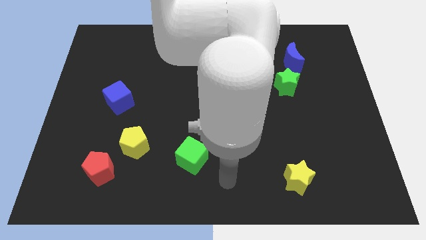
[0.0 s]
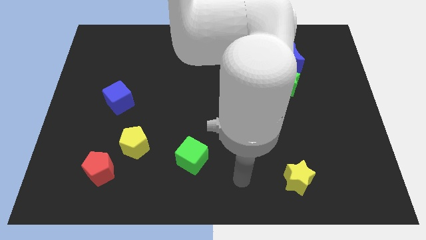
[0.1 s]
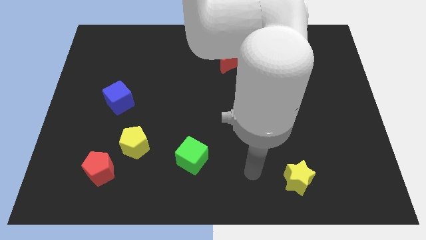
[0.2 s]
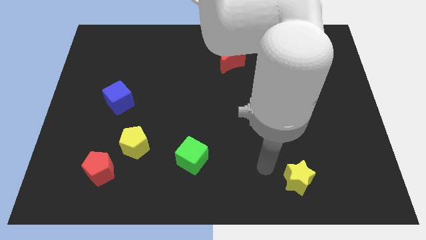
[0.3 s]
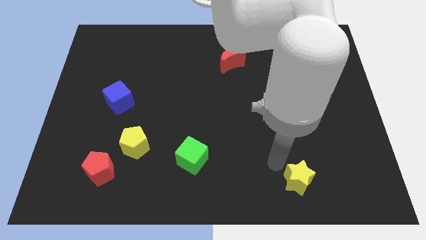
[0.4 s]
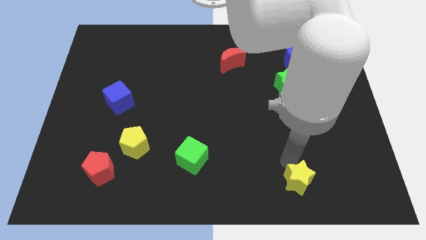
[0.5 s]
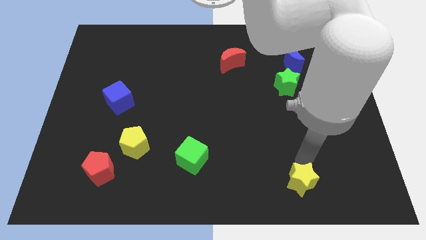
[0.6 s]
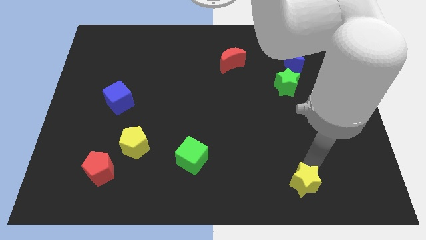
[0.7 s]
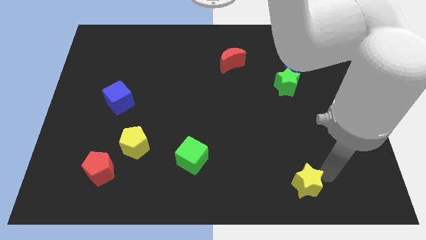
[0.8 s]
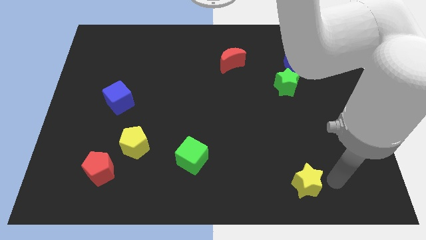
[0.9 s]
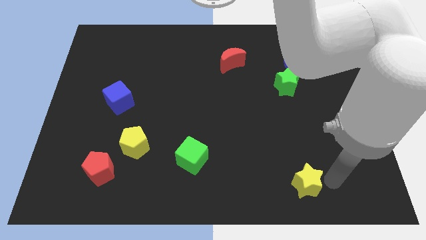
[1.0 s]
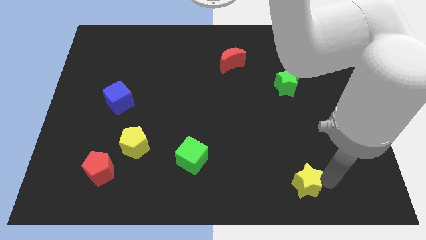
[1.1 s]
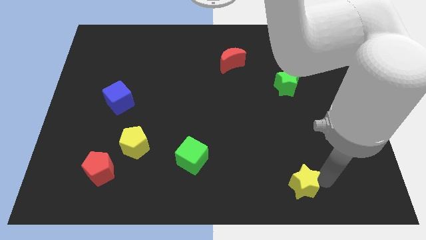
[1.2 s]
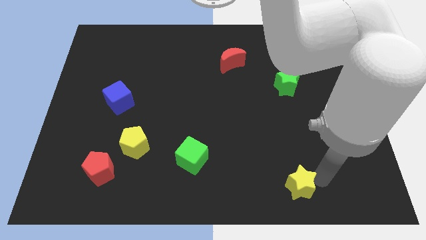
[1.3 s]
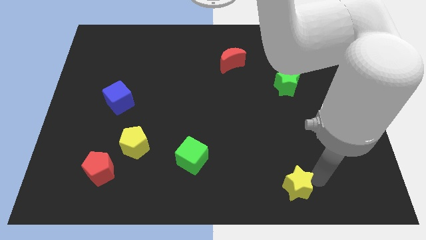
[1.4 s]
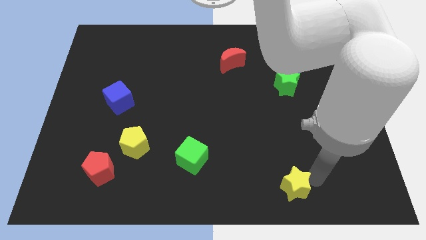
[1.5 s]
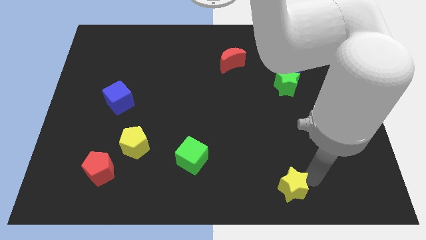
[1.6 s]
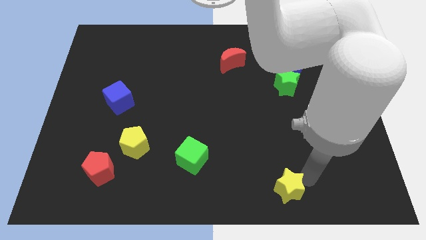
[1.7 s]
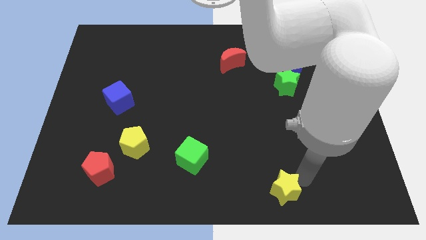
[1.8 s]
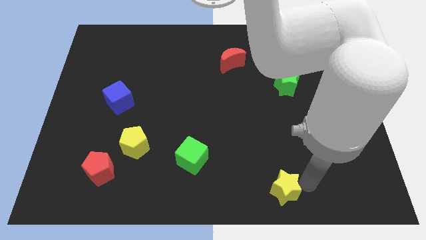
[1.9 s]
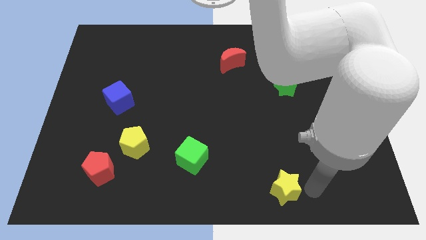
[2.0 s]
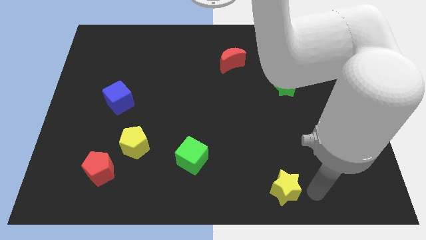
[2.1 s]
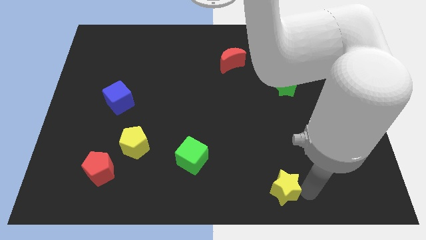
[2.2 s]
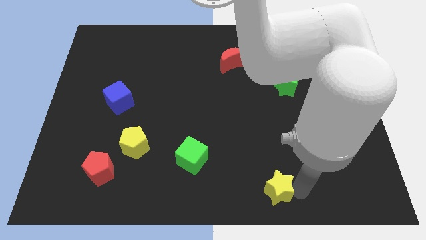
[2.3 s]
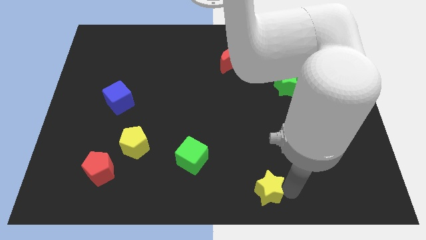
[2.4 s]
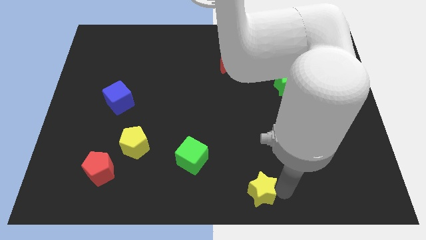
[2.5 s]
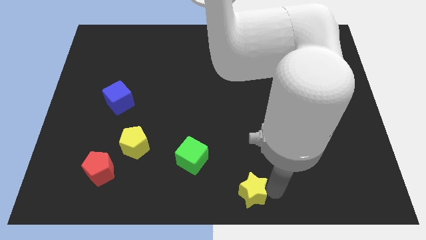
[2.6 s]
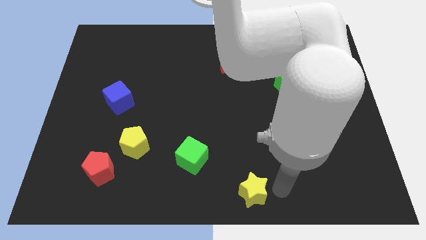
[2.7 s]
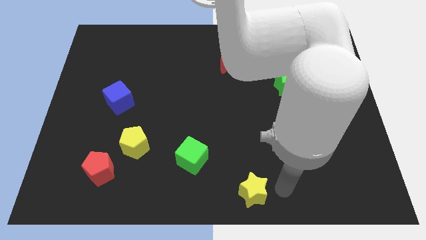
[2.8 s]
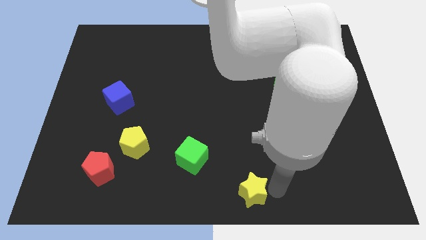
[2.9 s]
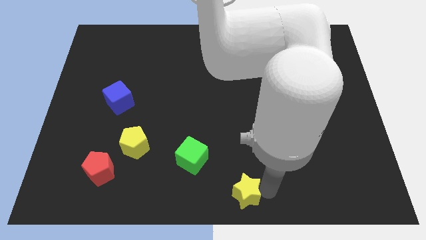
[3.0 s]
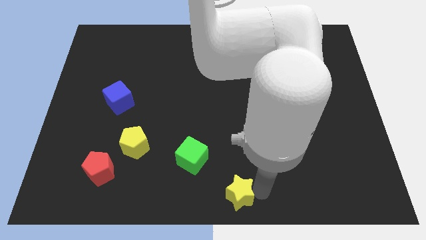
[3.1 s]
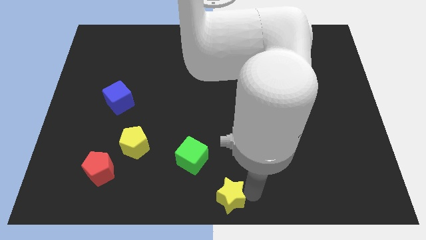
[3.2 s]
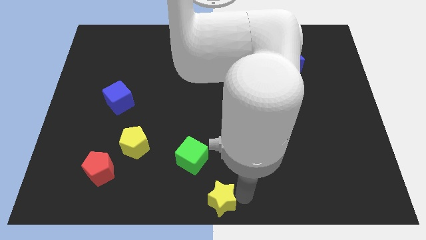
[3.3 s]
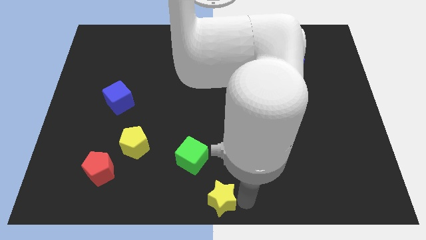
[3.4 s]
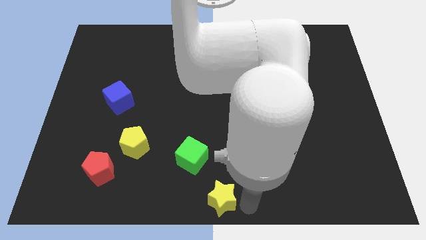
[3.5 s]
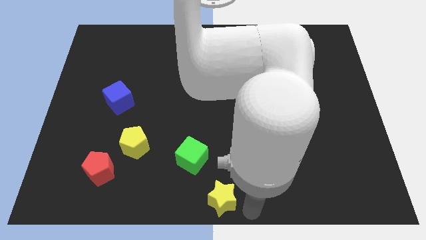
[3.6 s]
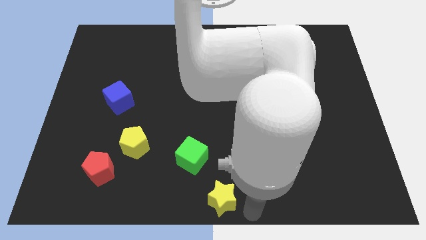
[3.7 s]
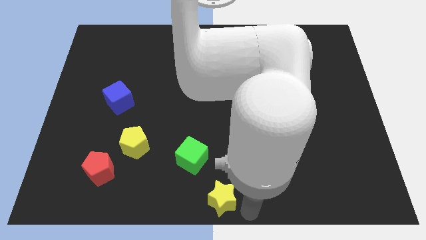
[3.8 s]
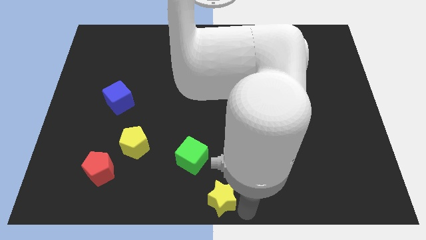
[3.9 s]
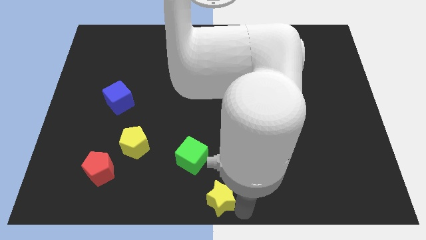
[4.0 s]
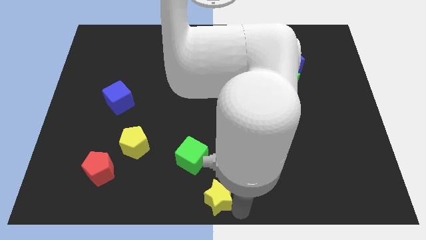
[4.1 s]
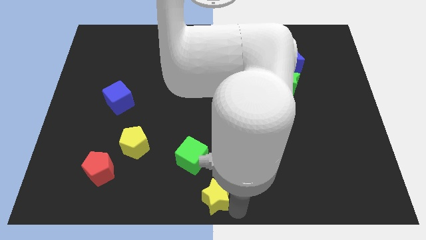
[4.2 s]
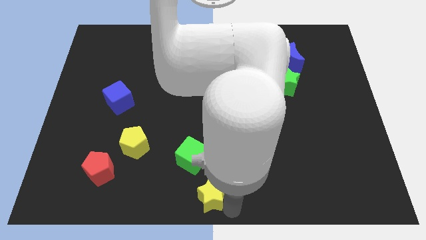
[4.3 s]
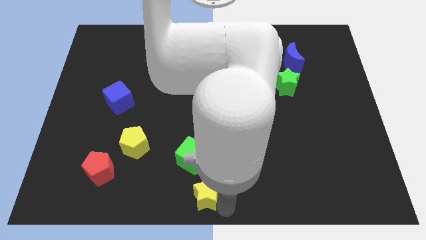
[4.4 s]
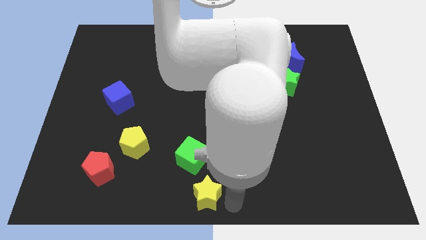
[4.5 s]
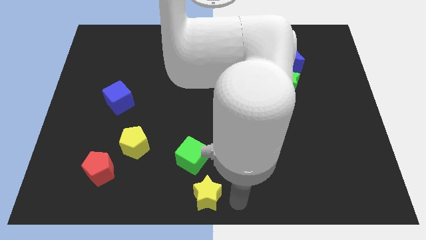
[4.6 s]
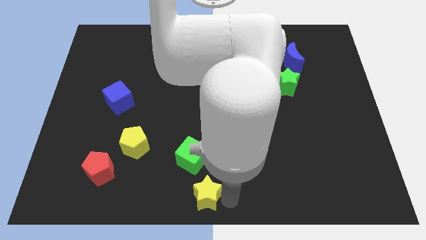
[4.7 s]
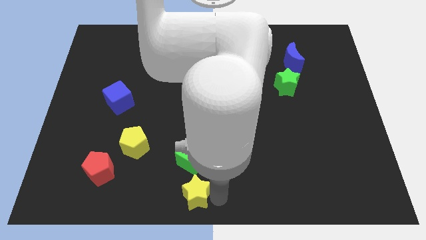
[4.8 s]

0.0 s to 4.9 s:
move the yellow star left

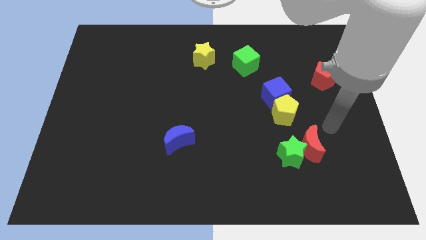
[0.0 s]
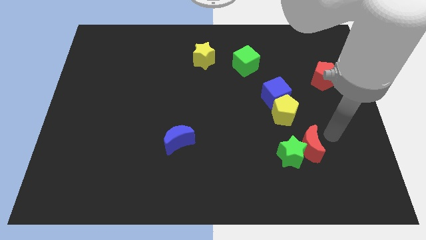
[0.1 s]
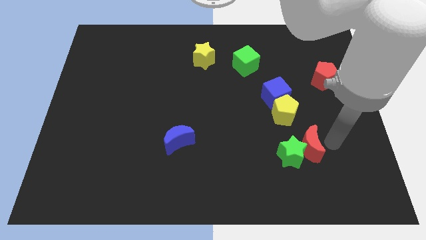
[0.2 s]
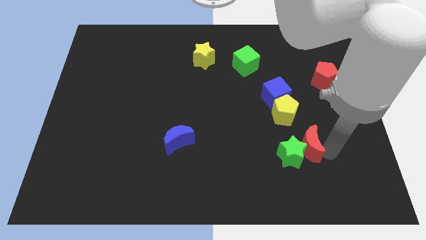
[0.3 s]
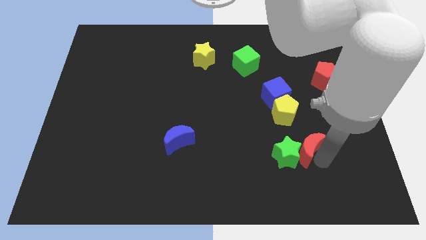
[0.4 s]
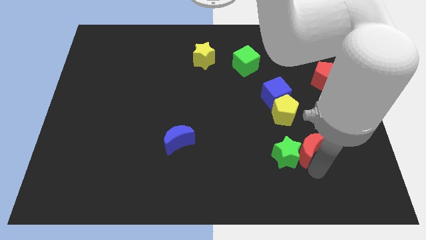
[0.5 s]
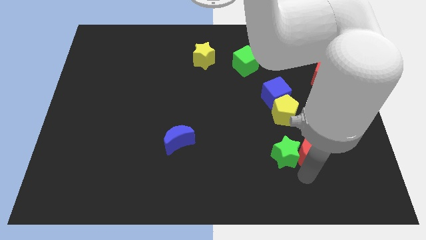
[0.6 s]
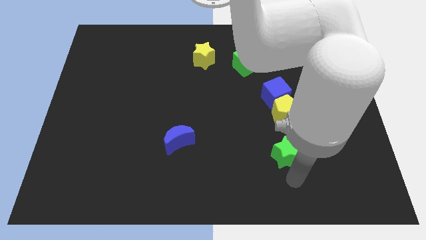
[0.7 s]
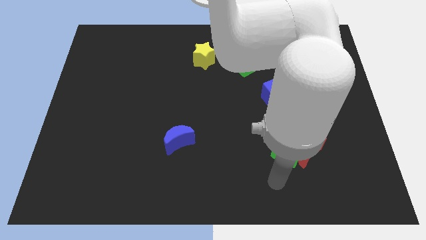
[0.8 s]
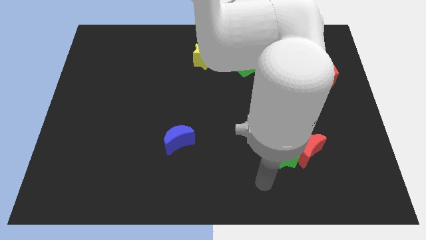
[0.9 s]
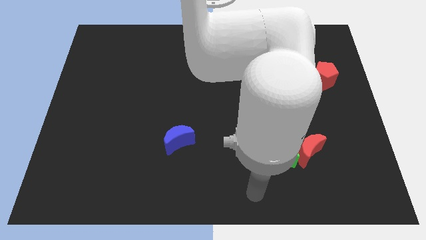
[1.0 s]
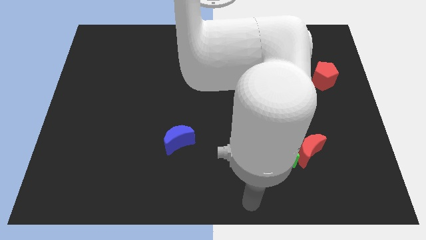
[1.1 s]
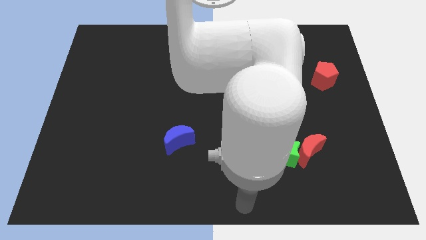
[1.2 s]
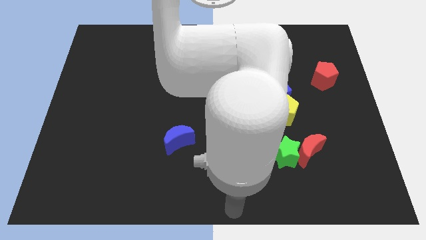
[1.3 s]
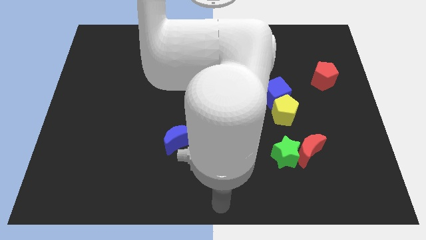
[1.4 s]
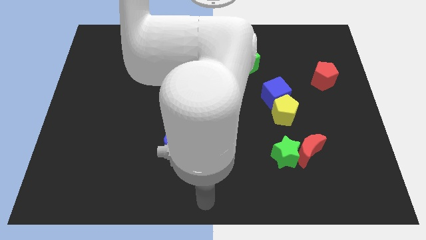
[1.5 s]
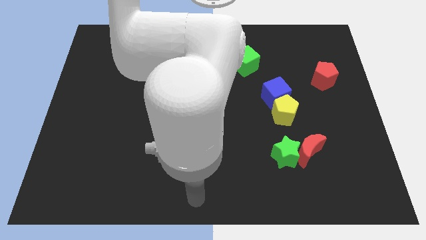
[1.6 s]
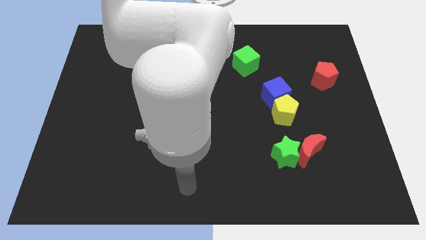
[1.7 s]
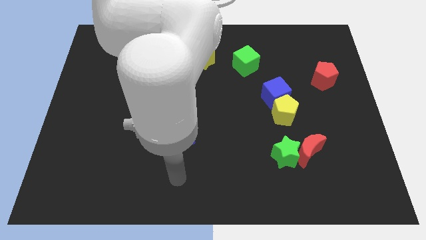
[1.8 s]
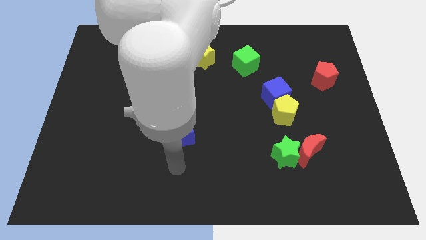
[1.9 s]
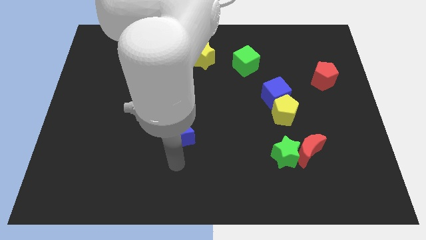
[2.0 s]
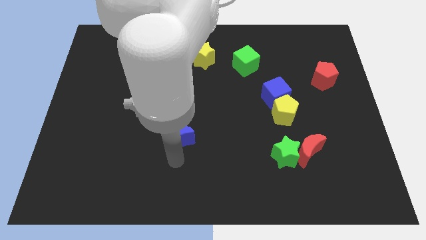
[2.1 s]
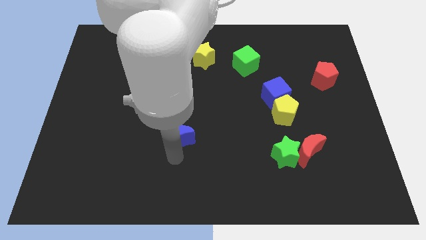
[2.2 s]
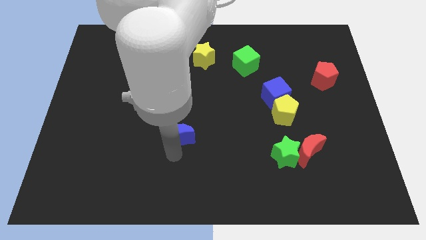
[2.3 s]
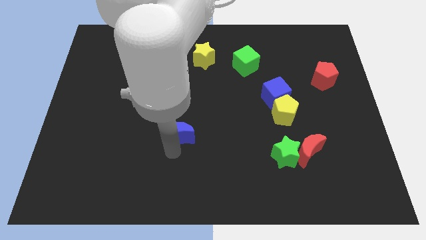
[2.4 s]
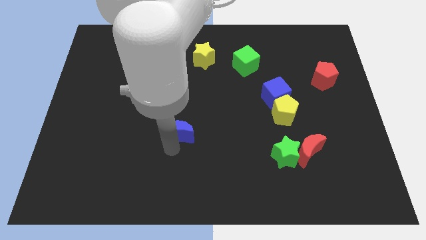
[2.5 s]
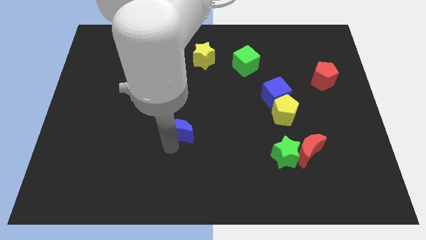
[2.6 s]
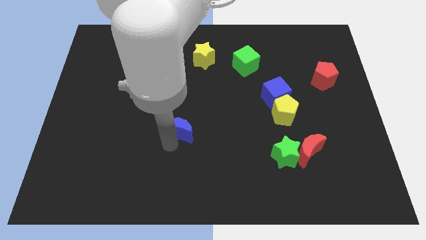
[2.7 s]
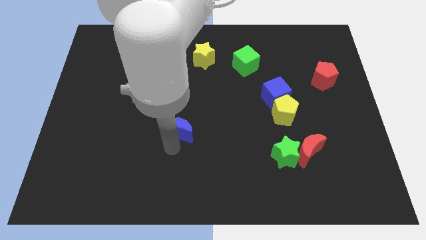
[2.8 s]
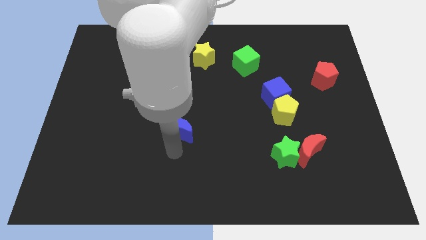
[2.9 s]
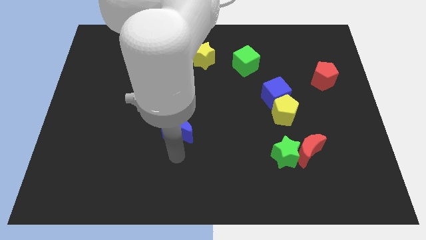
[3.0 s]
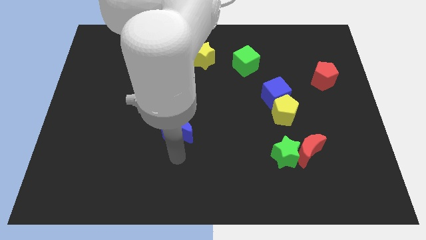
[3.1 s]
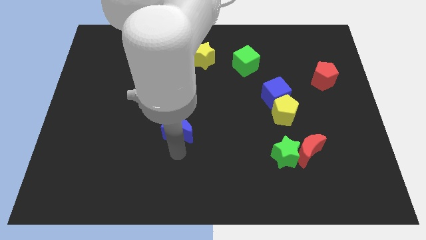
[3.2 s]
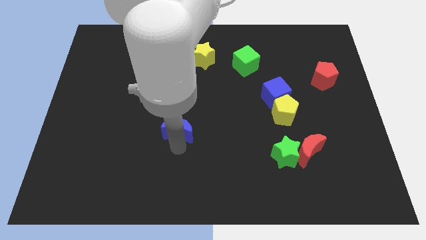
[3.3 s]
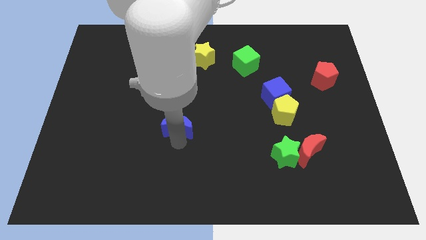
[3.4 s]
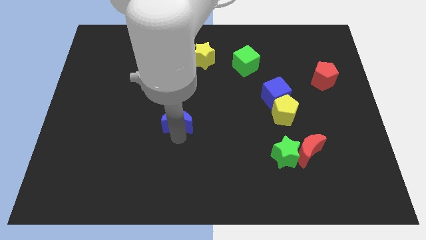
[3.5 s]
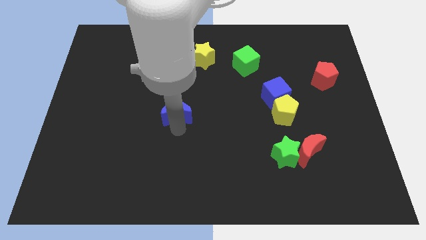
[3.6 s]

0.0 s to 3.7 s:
move the blue moon a little bit upwards
